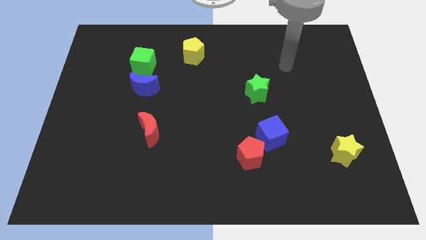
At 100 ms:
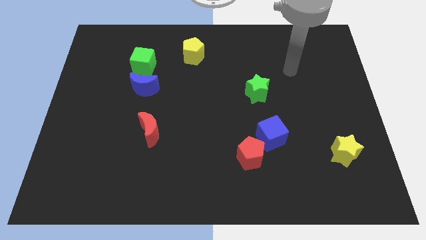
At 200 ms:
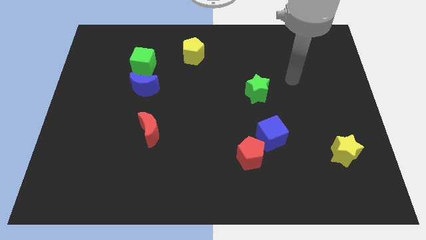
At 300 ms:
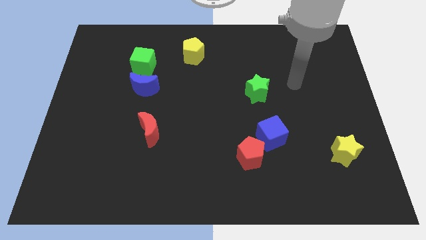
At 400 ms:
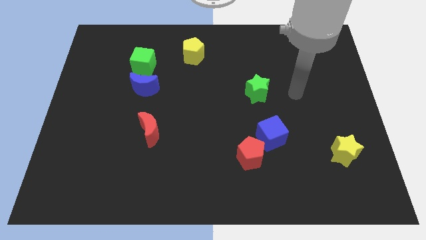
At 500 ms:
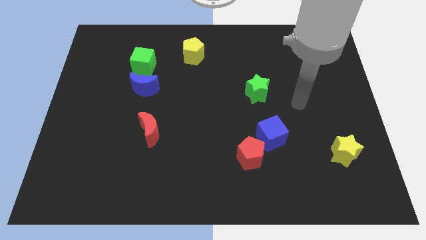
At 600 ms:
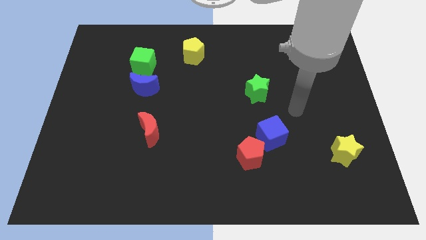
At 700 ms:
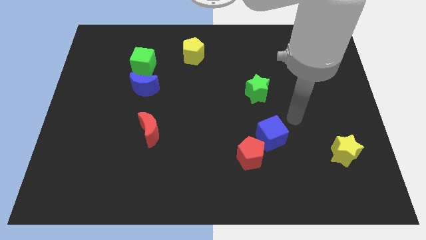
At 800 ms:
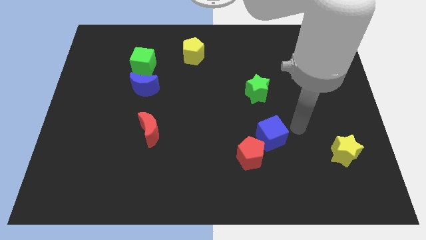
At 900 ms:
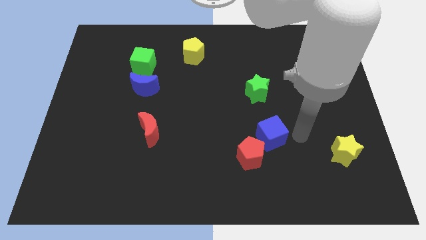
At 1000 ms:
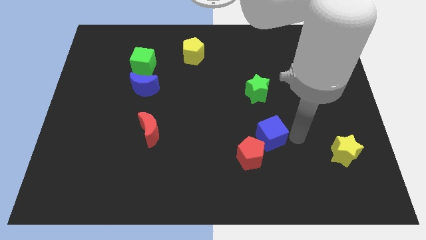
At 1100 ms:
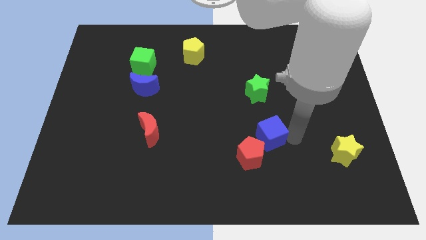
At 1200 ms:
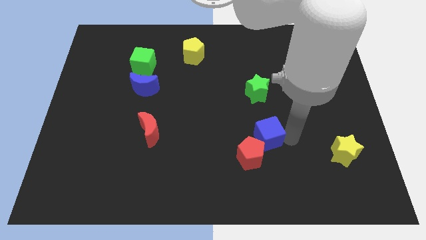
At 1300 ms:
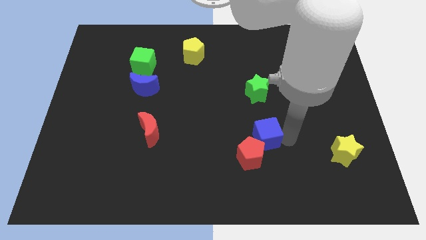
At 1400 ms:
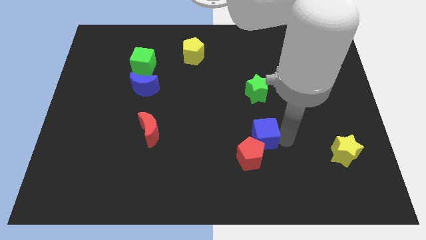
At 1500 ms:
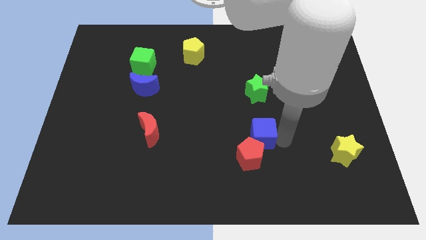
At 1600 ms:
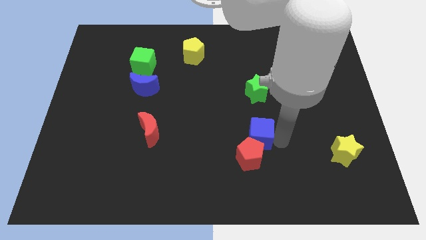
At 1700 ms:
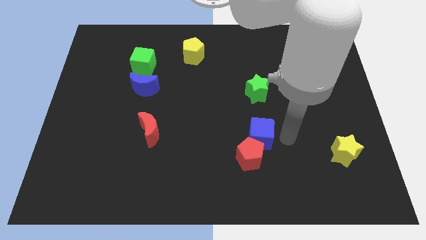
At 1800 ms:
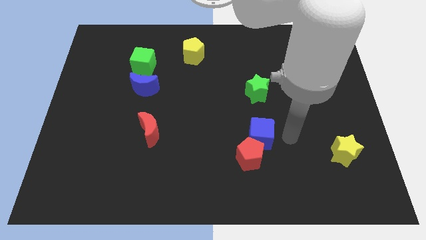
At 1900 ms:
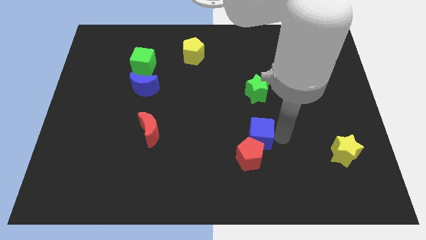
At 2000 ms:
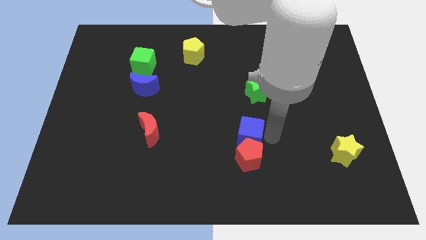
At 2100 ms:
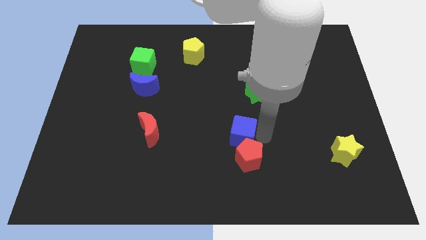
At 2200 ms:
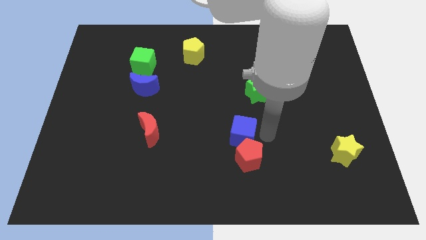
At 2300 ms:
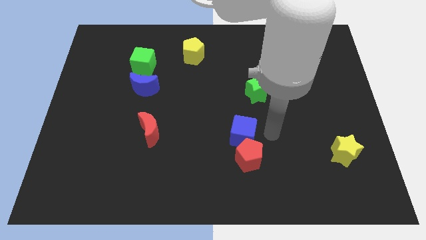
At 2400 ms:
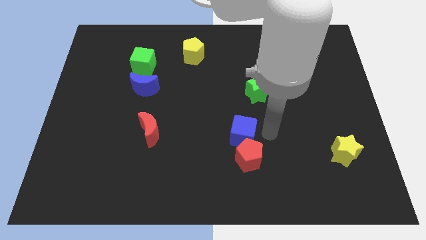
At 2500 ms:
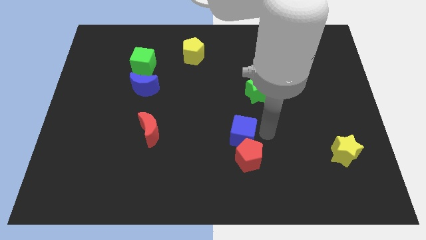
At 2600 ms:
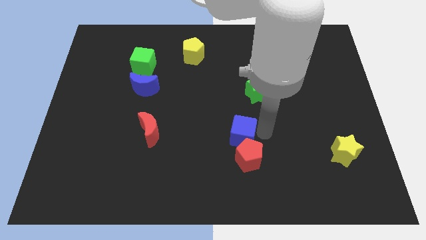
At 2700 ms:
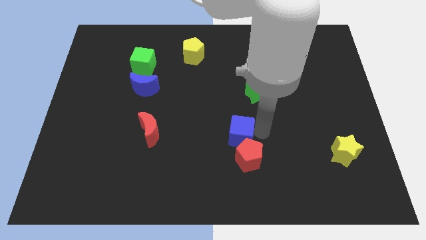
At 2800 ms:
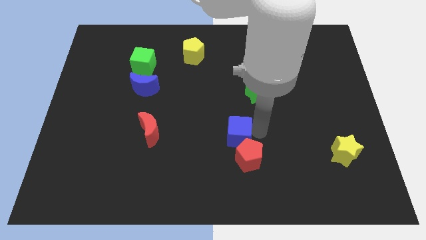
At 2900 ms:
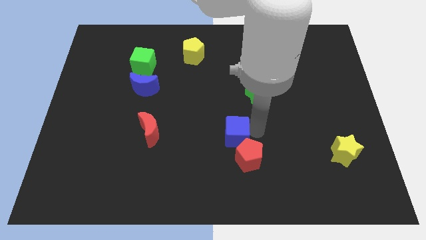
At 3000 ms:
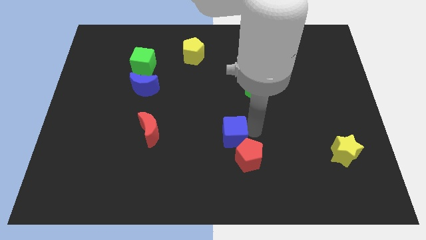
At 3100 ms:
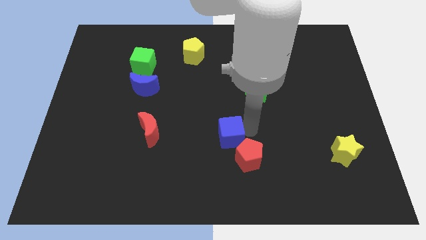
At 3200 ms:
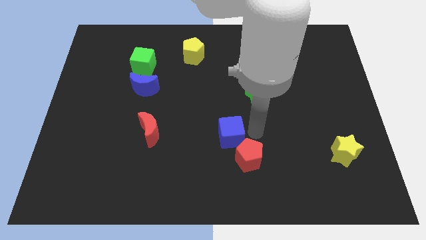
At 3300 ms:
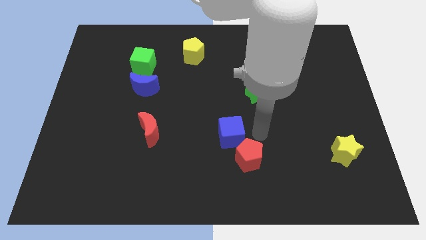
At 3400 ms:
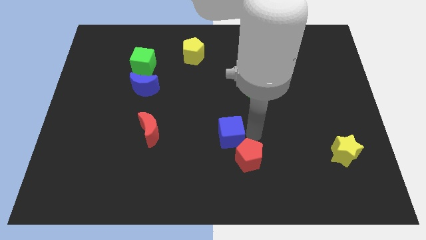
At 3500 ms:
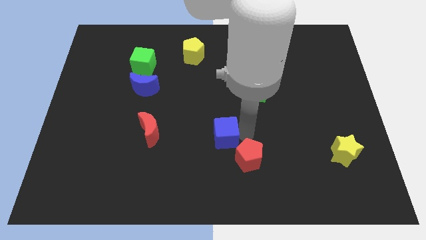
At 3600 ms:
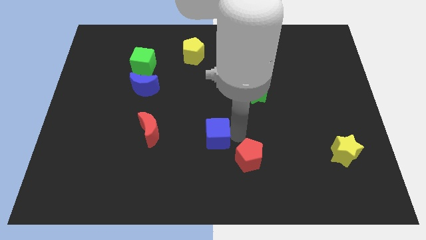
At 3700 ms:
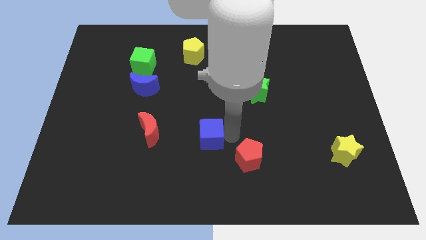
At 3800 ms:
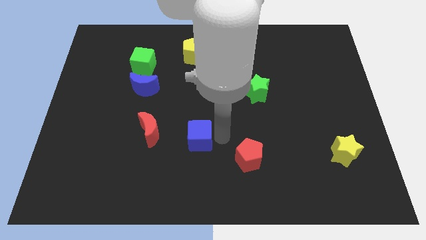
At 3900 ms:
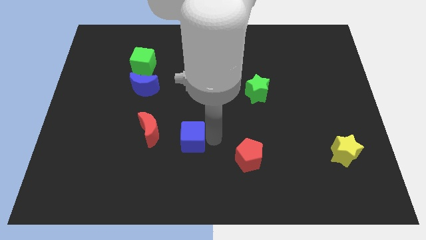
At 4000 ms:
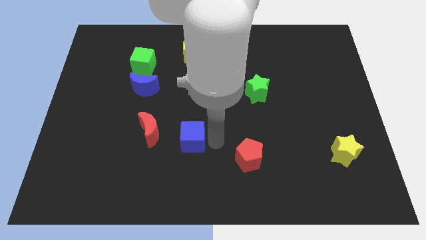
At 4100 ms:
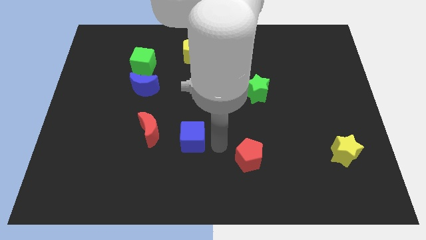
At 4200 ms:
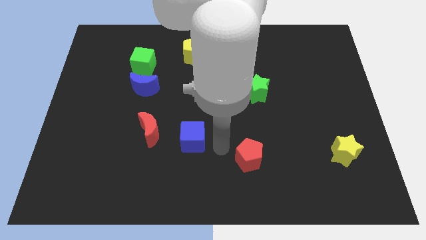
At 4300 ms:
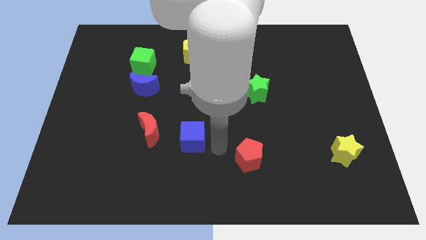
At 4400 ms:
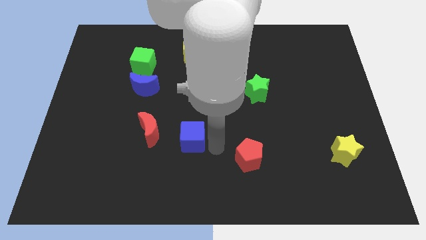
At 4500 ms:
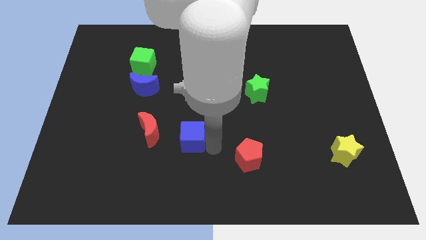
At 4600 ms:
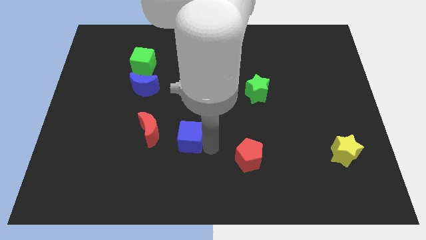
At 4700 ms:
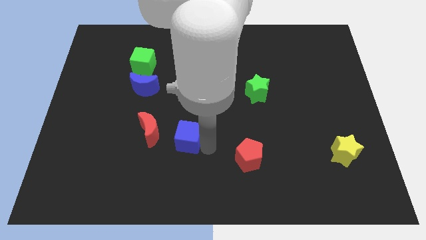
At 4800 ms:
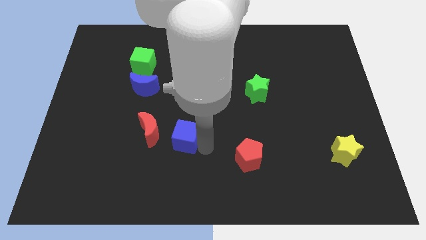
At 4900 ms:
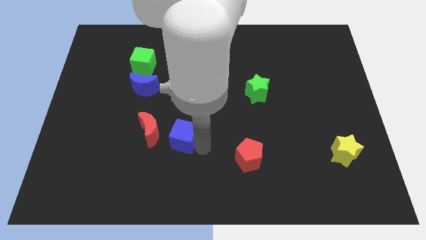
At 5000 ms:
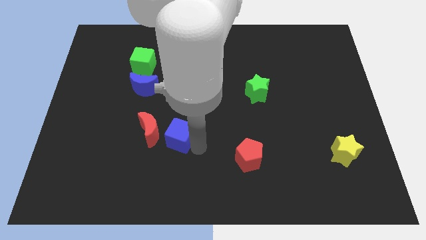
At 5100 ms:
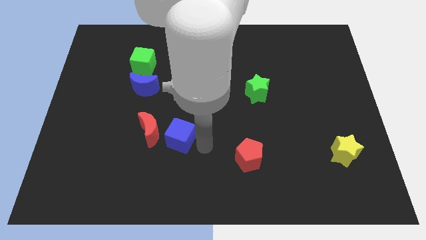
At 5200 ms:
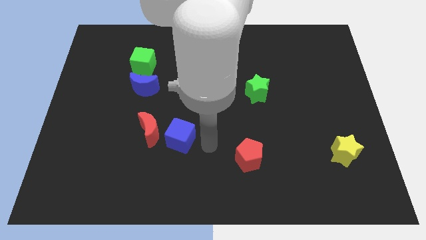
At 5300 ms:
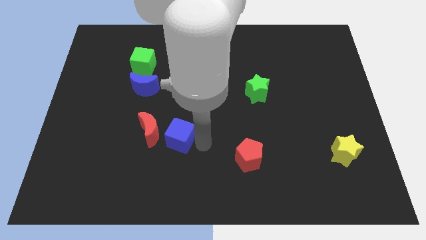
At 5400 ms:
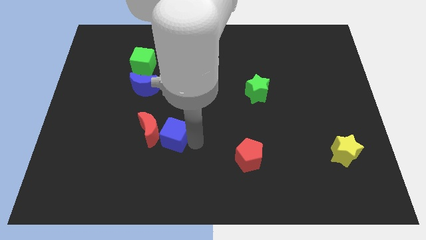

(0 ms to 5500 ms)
put the blue cube next to the red moon

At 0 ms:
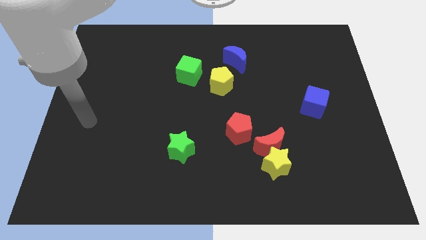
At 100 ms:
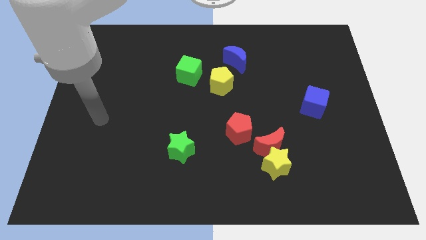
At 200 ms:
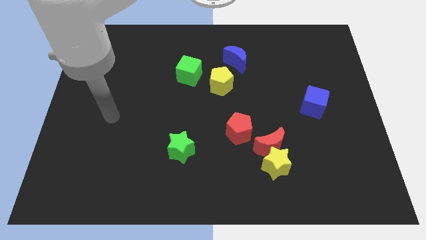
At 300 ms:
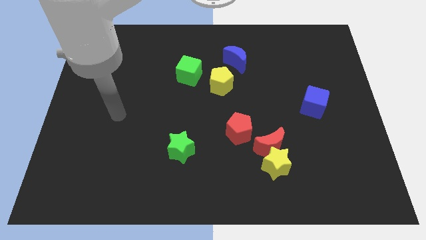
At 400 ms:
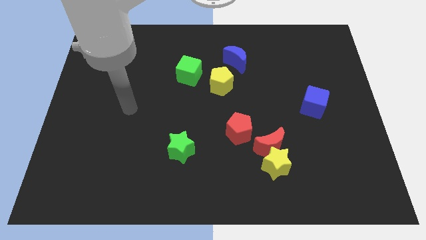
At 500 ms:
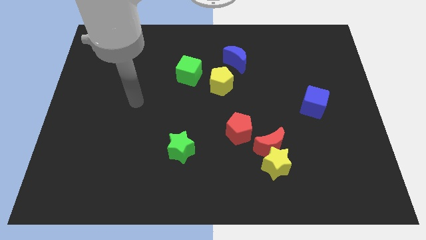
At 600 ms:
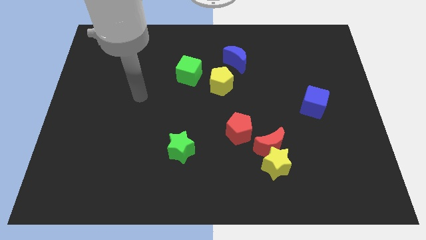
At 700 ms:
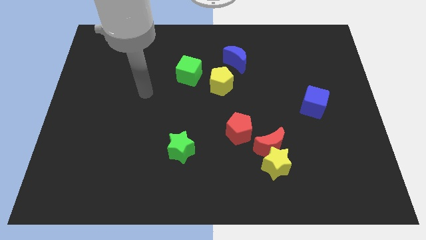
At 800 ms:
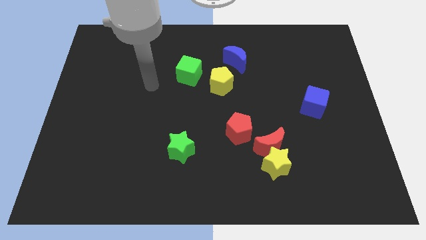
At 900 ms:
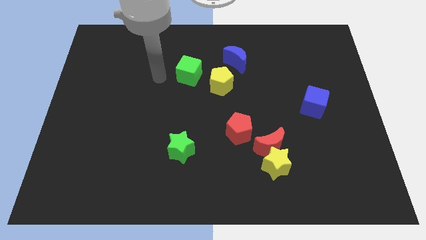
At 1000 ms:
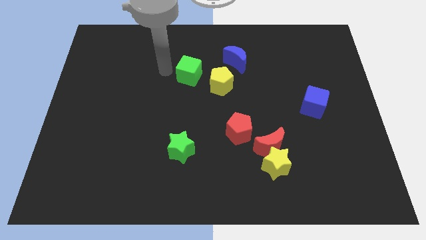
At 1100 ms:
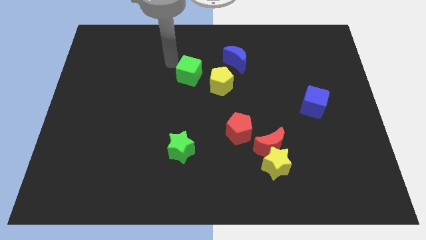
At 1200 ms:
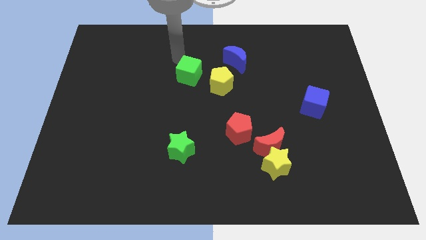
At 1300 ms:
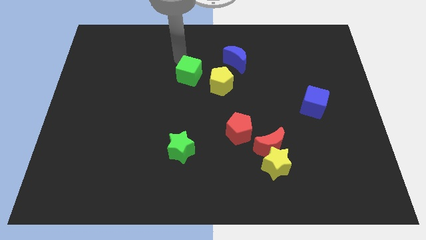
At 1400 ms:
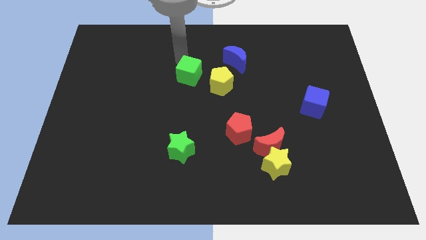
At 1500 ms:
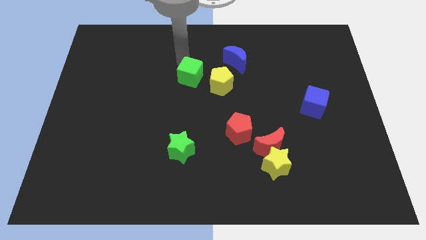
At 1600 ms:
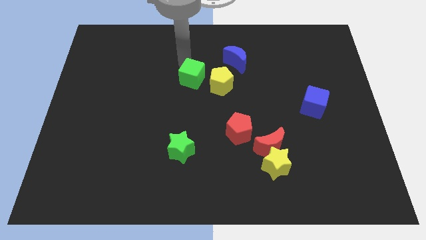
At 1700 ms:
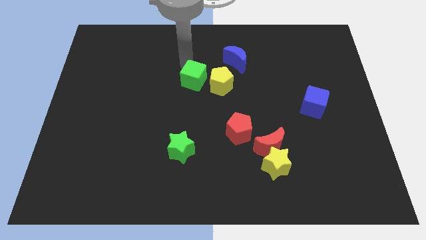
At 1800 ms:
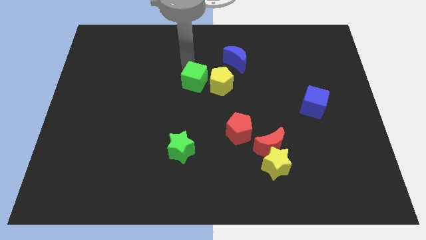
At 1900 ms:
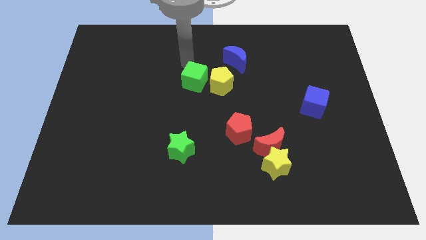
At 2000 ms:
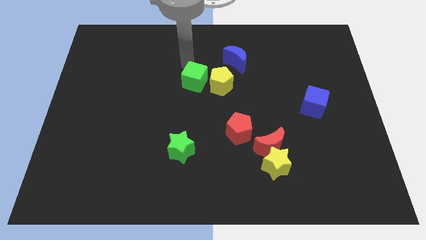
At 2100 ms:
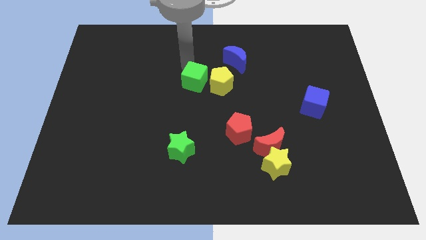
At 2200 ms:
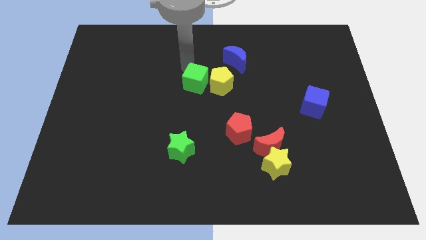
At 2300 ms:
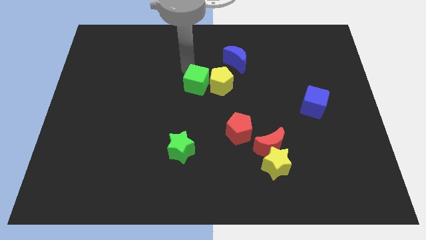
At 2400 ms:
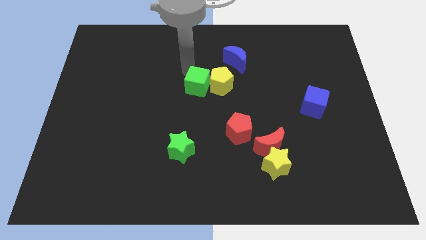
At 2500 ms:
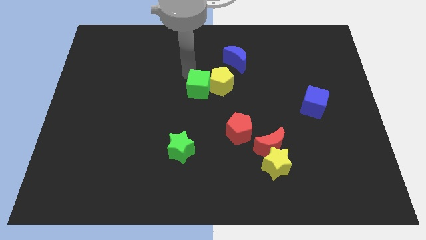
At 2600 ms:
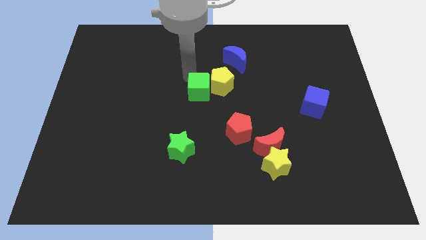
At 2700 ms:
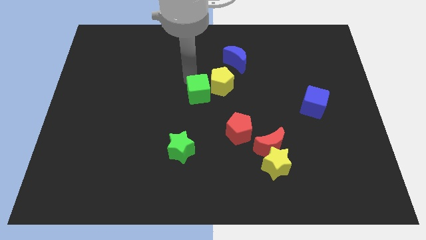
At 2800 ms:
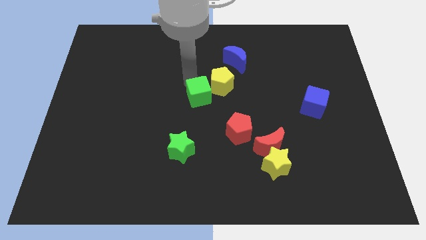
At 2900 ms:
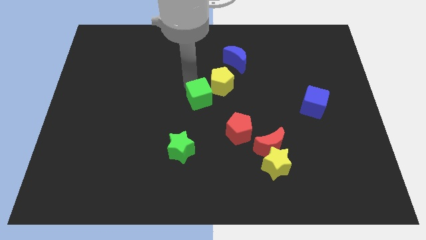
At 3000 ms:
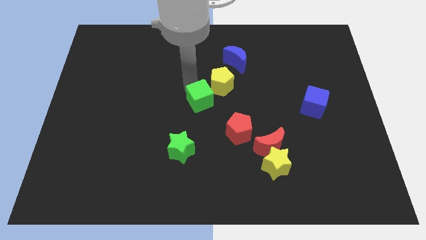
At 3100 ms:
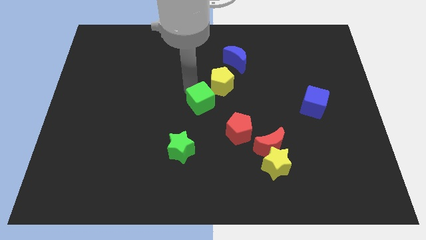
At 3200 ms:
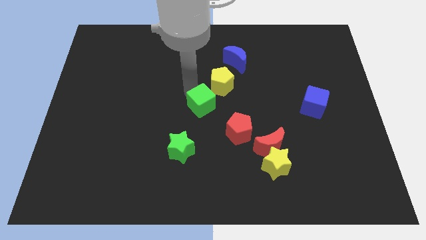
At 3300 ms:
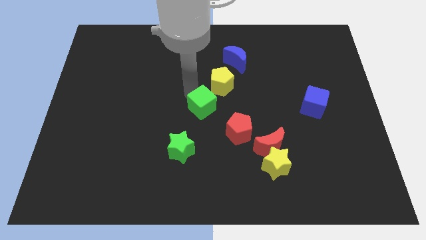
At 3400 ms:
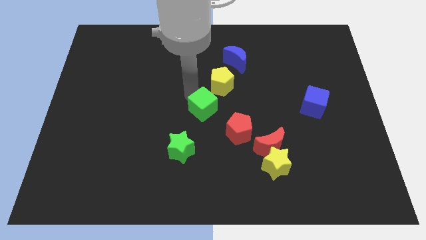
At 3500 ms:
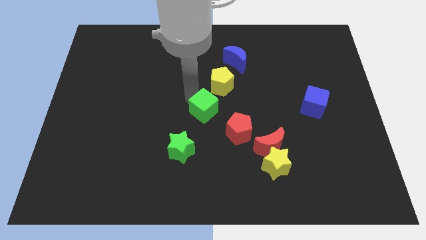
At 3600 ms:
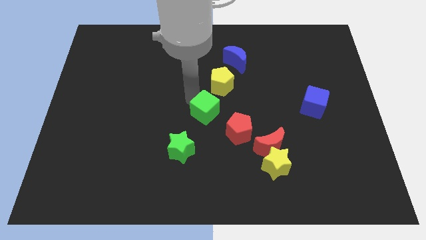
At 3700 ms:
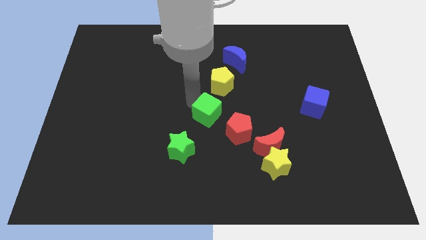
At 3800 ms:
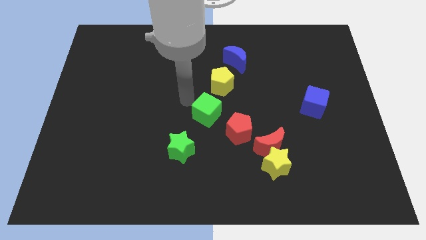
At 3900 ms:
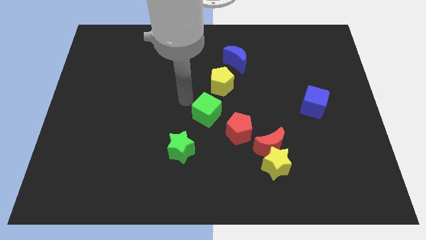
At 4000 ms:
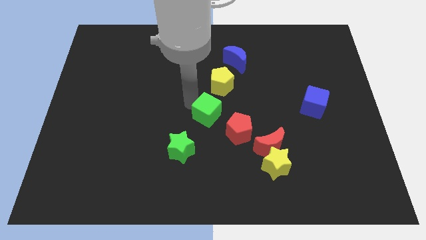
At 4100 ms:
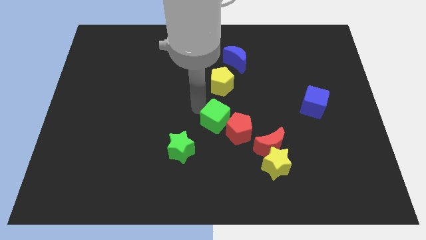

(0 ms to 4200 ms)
push the green cube next to the red pentagon
